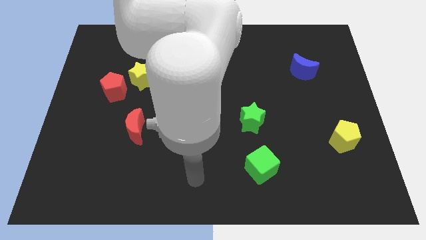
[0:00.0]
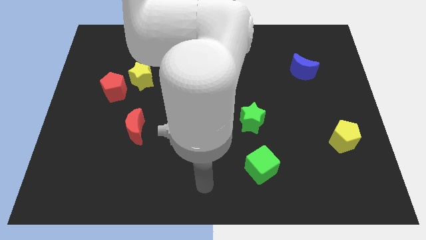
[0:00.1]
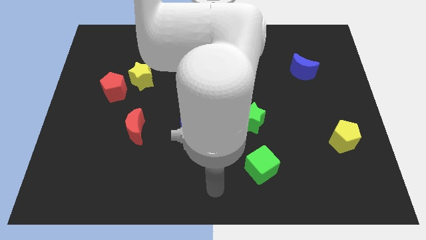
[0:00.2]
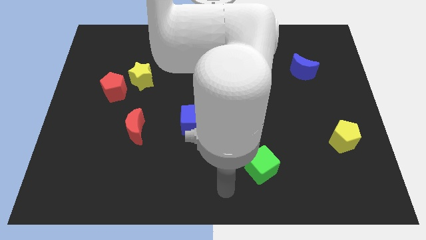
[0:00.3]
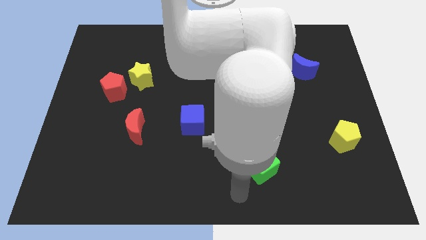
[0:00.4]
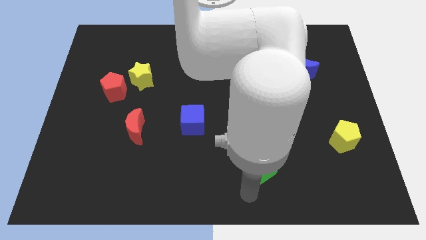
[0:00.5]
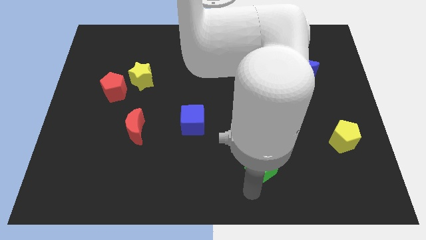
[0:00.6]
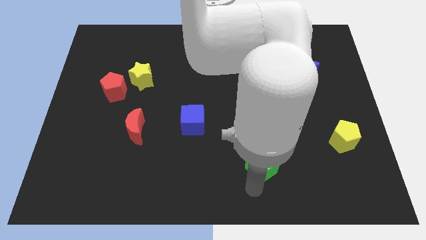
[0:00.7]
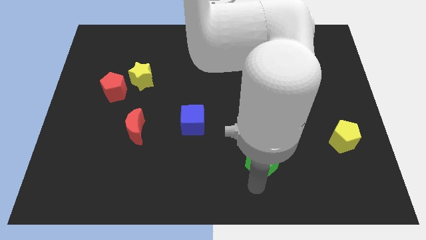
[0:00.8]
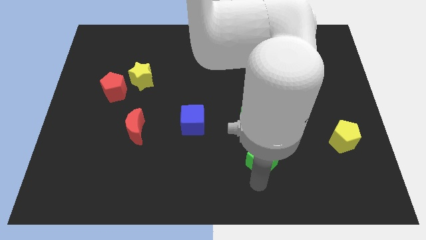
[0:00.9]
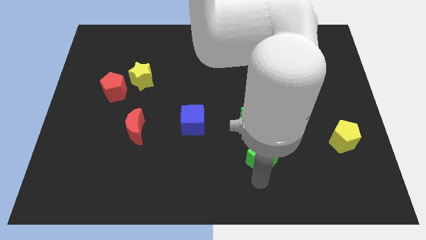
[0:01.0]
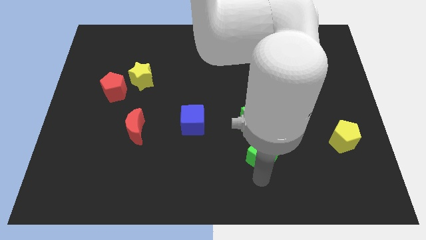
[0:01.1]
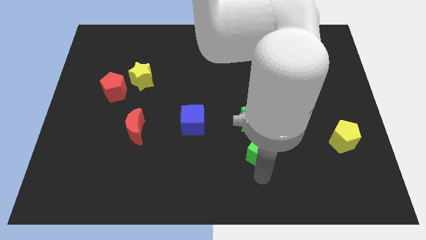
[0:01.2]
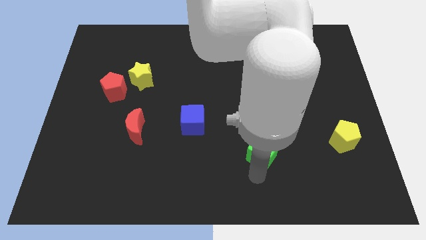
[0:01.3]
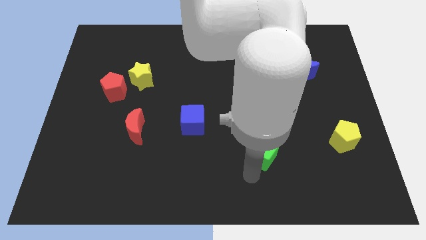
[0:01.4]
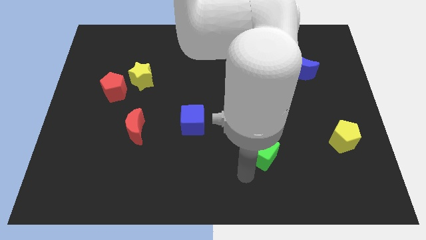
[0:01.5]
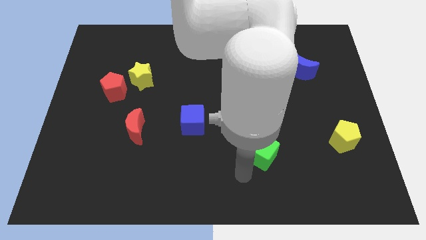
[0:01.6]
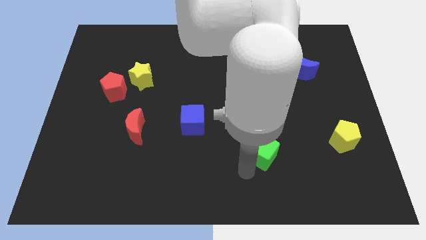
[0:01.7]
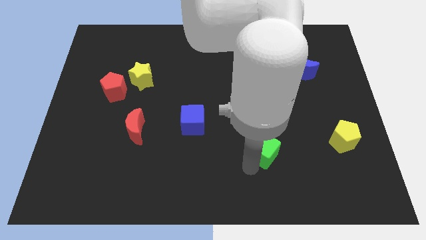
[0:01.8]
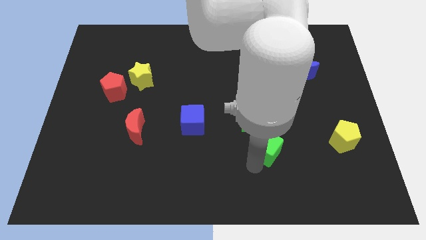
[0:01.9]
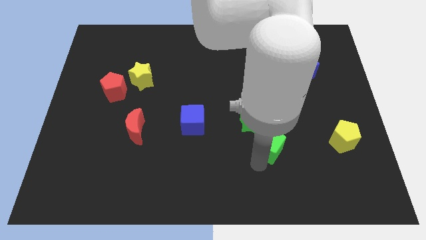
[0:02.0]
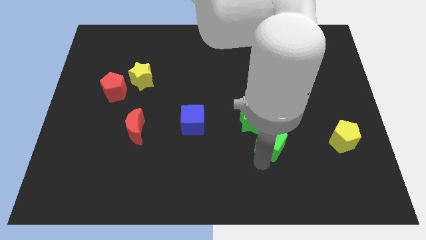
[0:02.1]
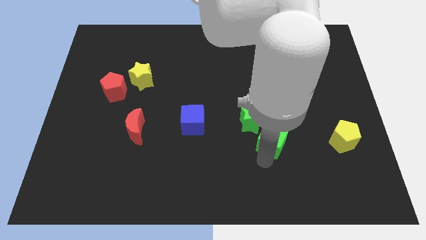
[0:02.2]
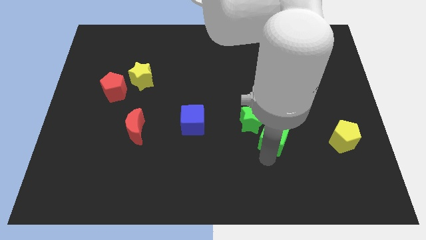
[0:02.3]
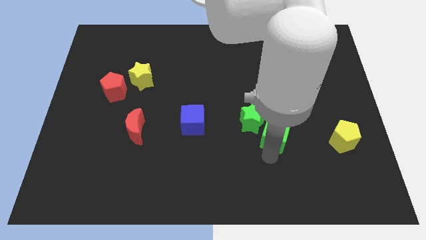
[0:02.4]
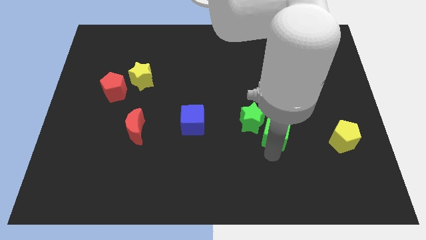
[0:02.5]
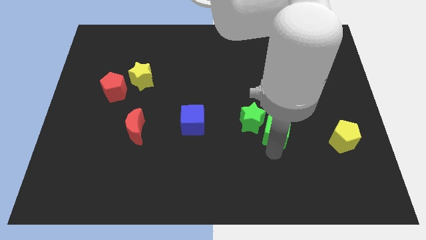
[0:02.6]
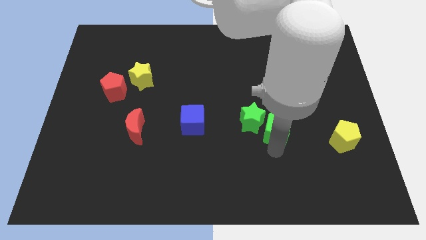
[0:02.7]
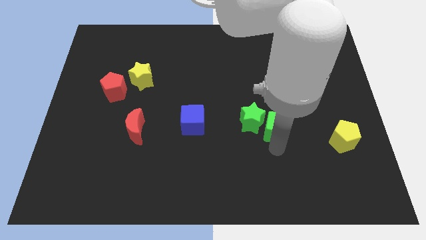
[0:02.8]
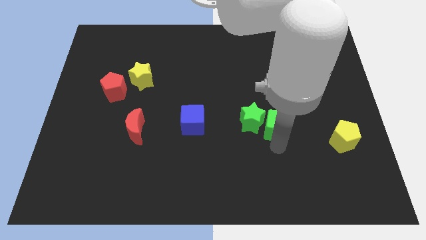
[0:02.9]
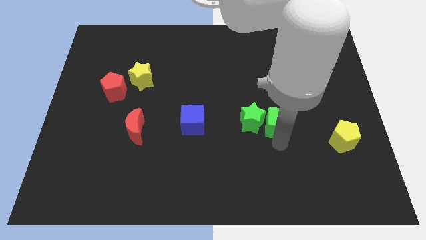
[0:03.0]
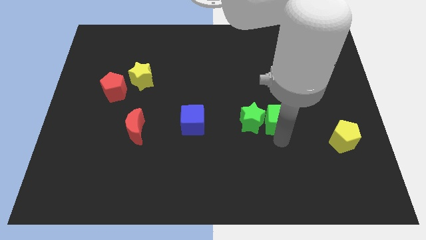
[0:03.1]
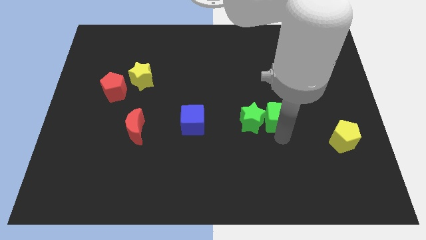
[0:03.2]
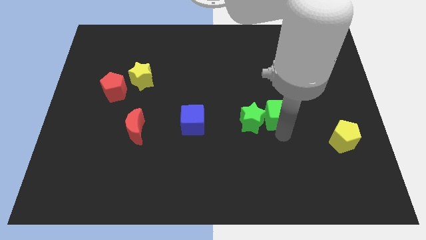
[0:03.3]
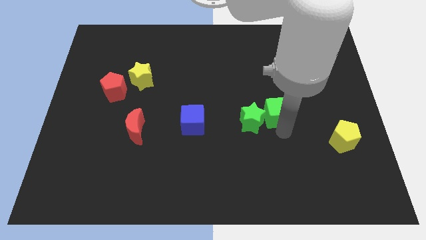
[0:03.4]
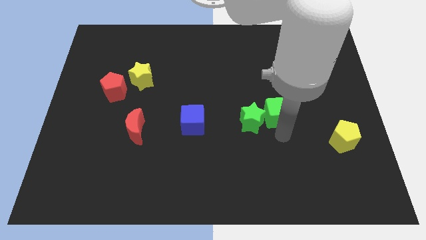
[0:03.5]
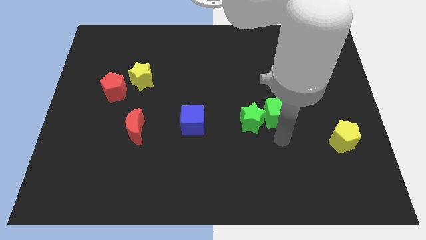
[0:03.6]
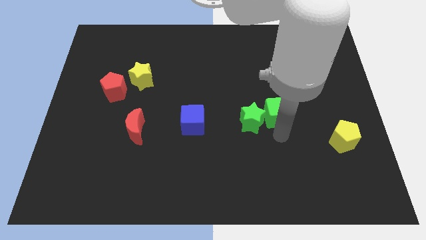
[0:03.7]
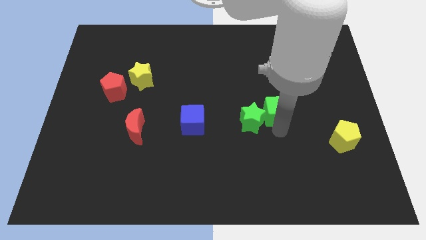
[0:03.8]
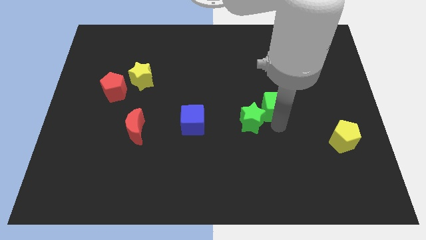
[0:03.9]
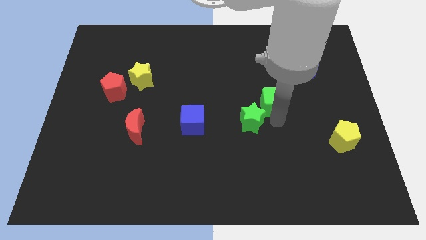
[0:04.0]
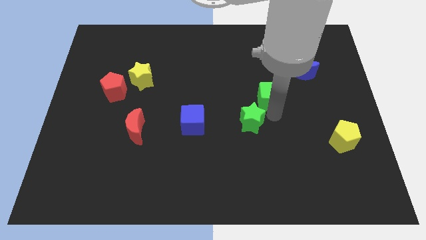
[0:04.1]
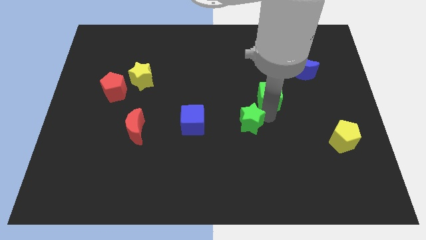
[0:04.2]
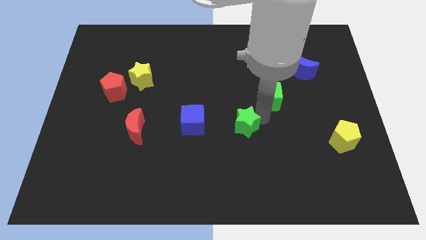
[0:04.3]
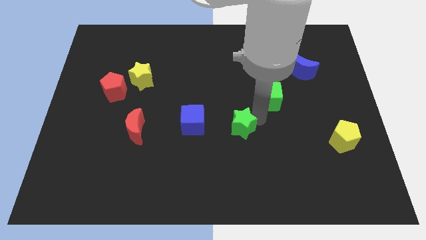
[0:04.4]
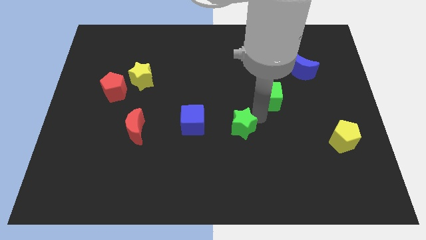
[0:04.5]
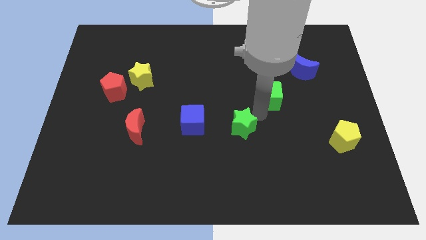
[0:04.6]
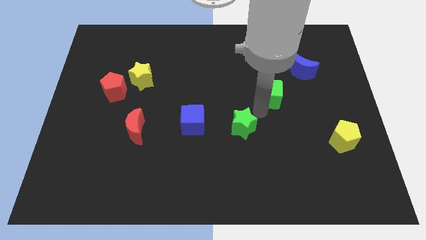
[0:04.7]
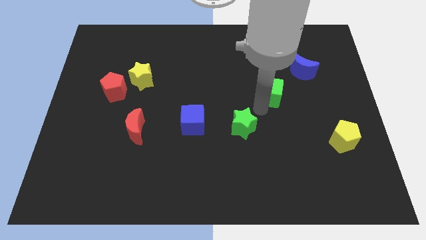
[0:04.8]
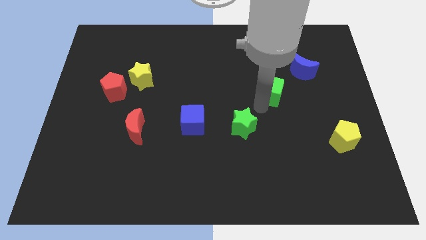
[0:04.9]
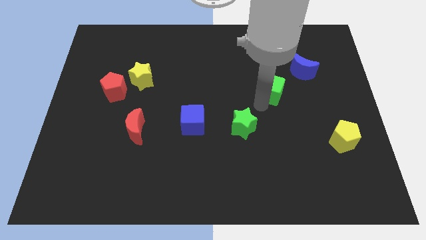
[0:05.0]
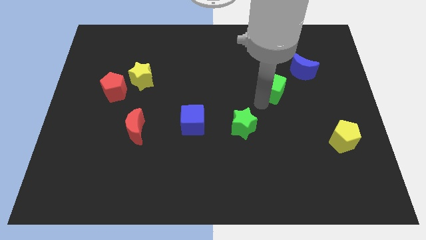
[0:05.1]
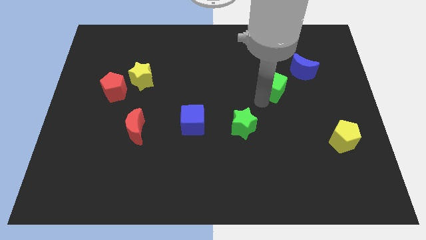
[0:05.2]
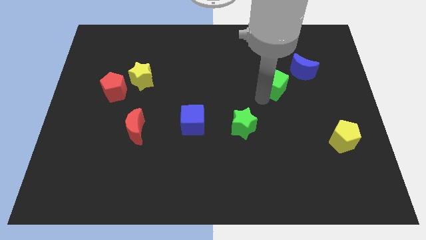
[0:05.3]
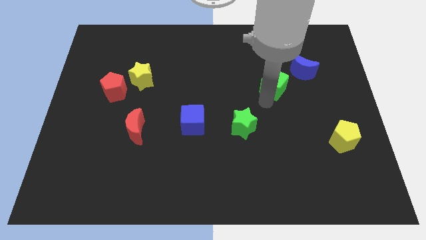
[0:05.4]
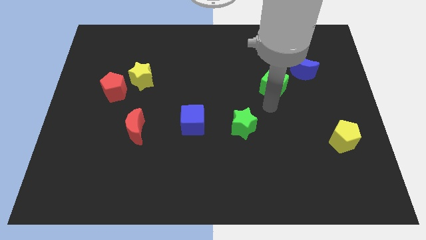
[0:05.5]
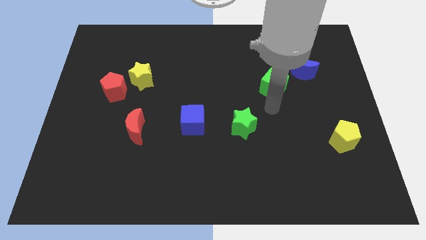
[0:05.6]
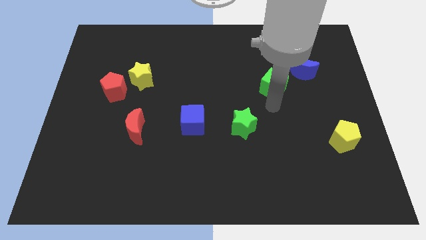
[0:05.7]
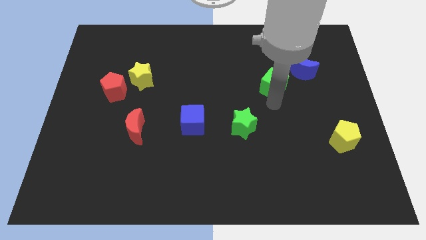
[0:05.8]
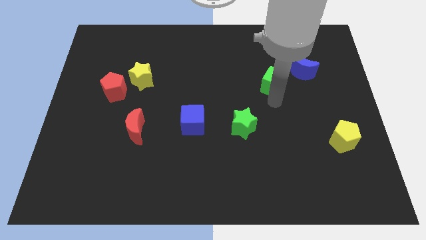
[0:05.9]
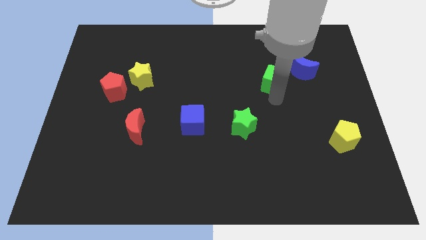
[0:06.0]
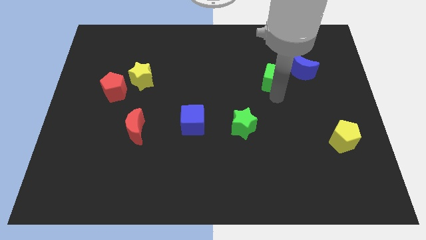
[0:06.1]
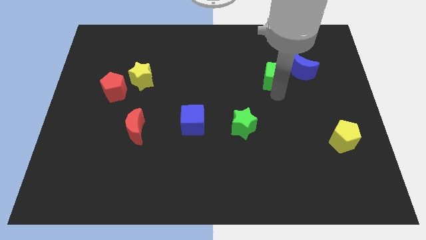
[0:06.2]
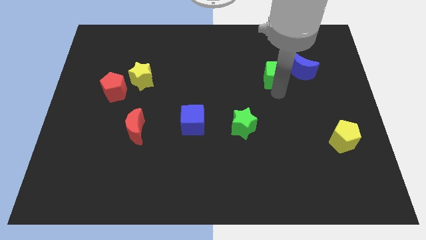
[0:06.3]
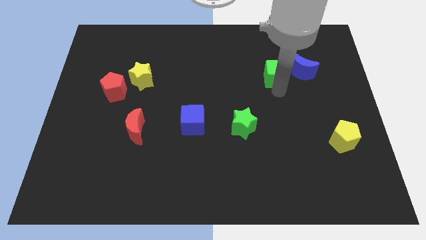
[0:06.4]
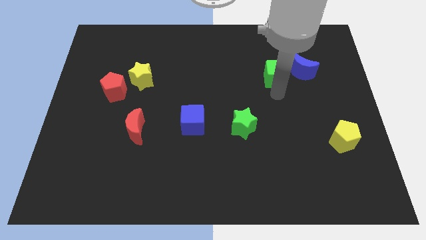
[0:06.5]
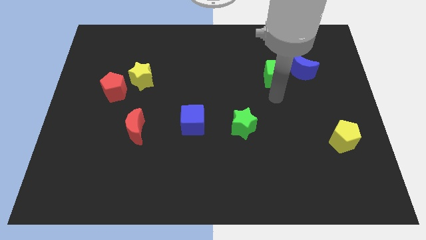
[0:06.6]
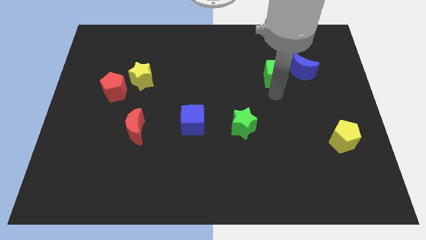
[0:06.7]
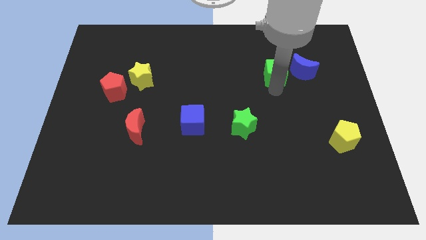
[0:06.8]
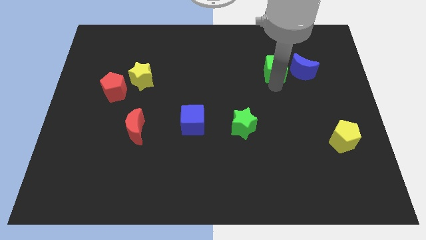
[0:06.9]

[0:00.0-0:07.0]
slide the green cube to the top left side of the blue moon
